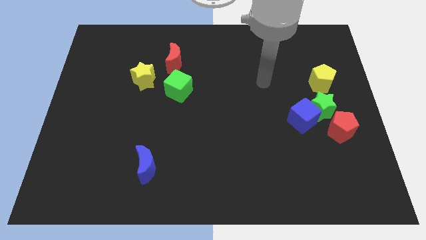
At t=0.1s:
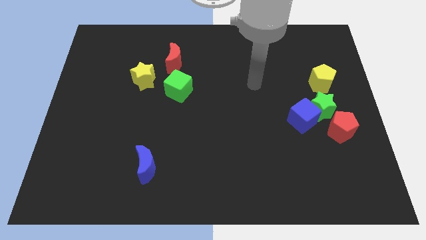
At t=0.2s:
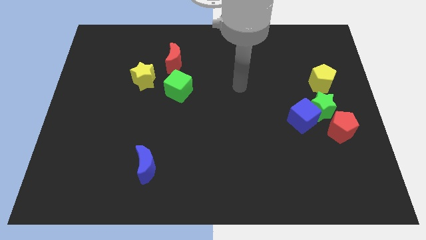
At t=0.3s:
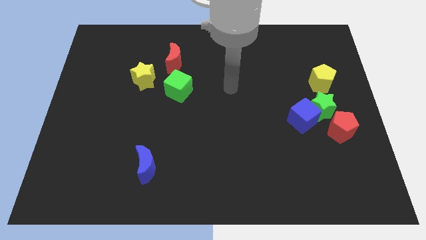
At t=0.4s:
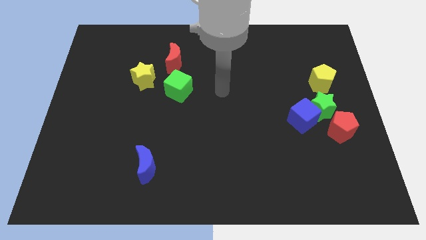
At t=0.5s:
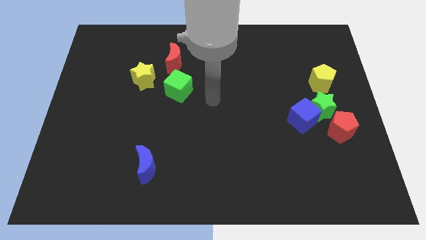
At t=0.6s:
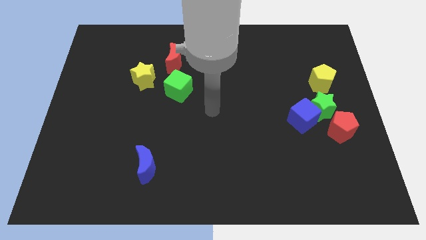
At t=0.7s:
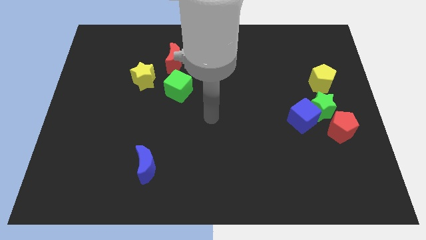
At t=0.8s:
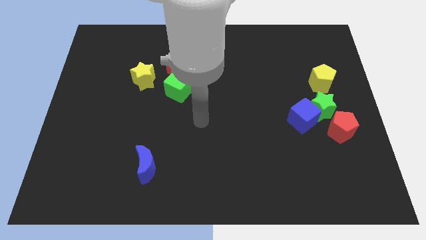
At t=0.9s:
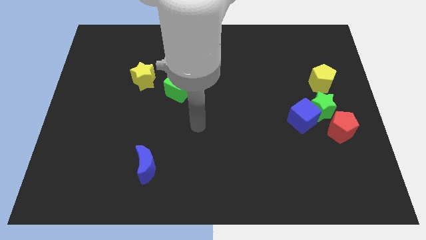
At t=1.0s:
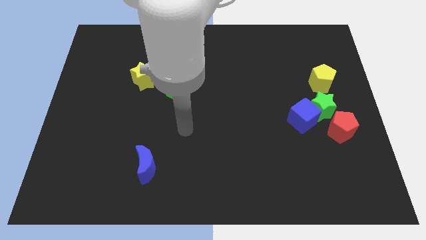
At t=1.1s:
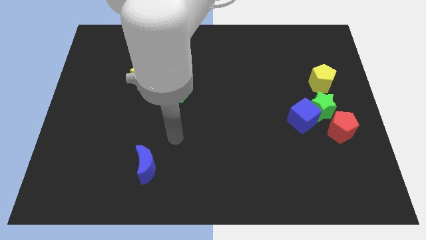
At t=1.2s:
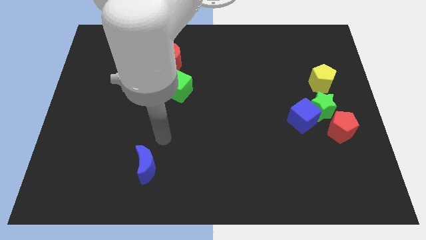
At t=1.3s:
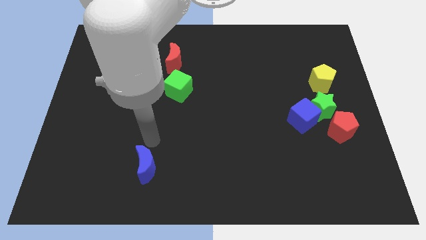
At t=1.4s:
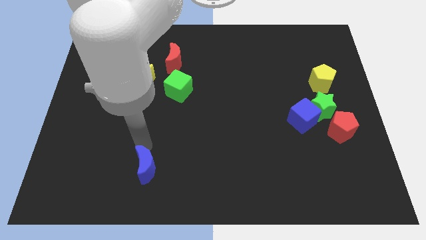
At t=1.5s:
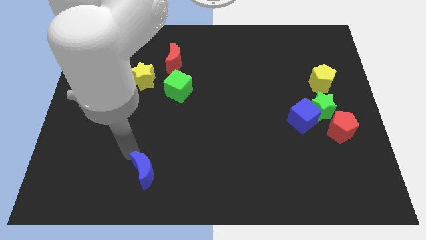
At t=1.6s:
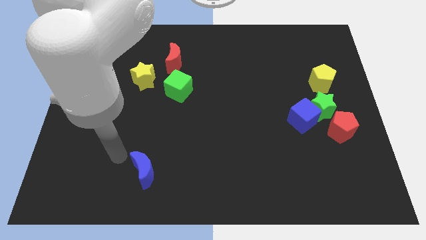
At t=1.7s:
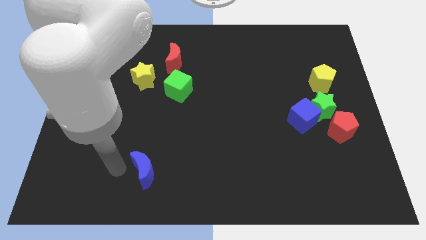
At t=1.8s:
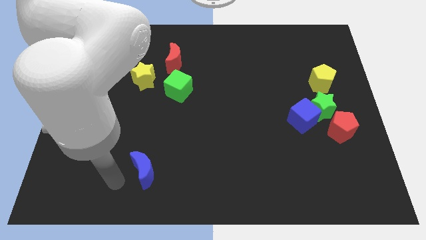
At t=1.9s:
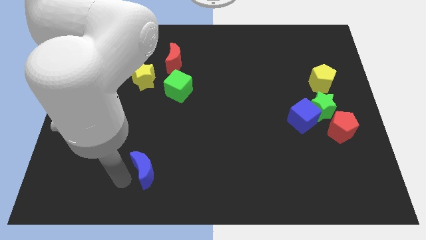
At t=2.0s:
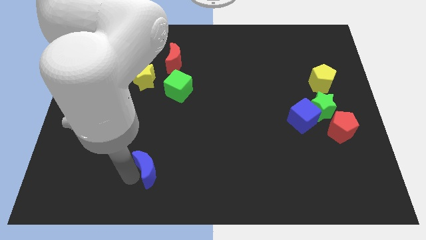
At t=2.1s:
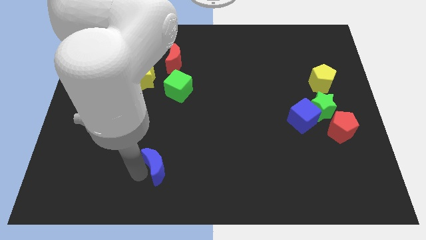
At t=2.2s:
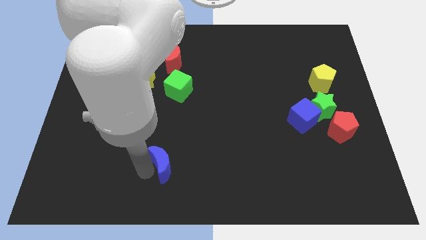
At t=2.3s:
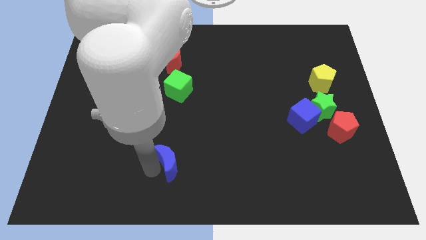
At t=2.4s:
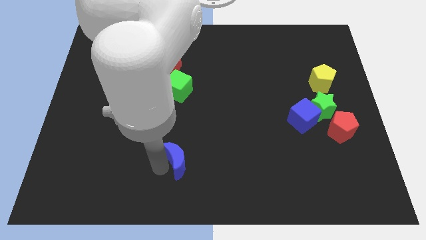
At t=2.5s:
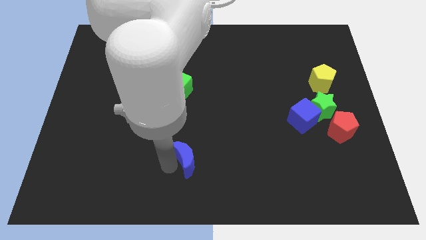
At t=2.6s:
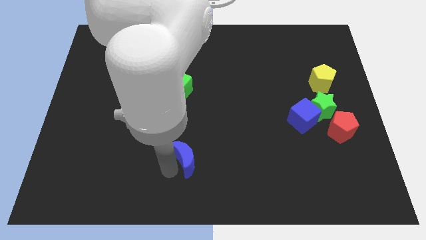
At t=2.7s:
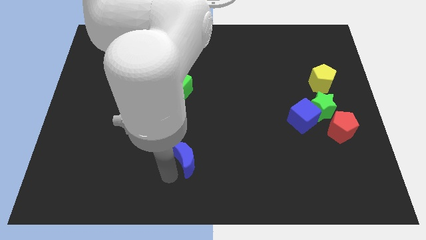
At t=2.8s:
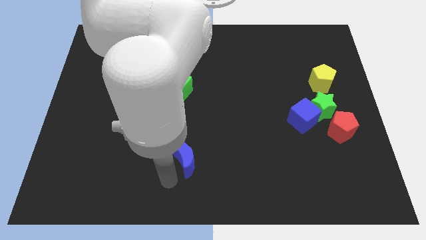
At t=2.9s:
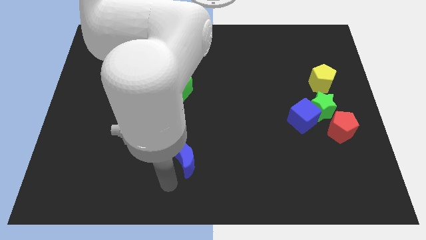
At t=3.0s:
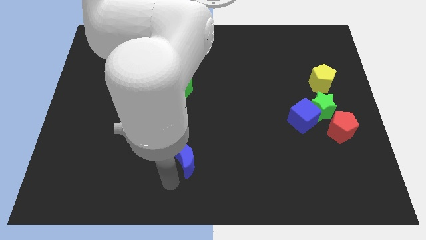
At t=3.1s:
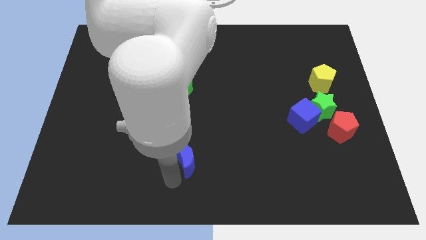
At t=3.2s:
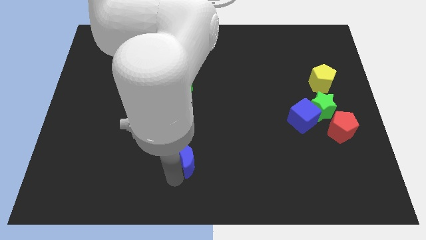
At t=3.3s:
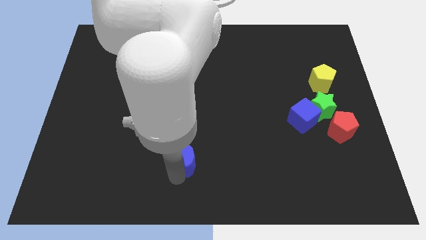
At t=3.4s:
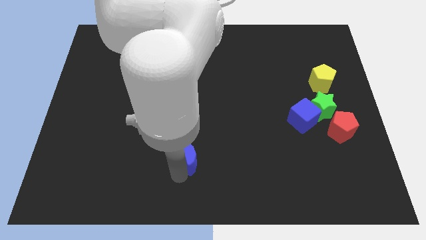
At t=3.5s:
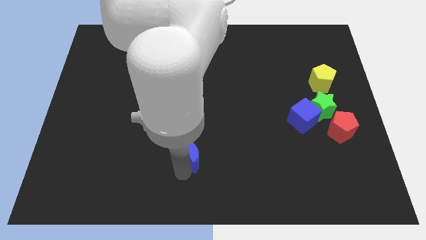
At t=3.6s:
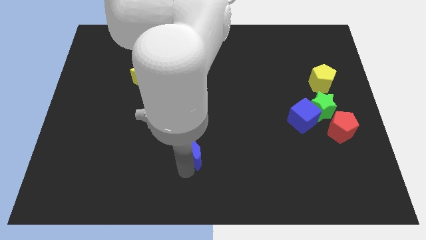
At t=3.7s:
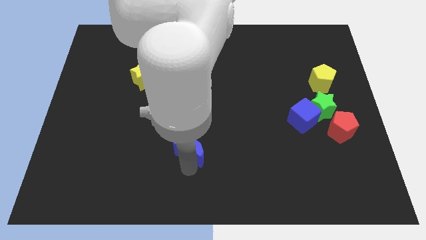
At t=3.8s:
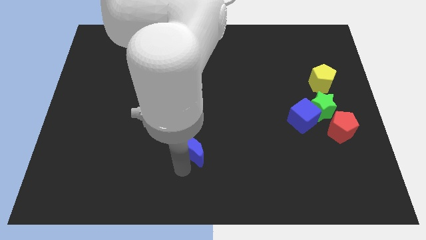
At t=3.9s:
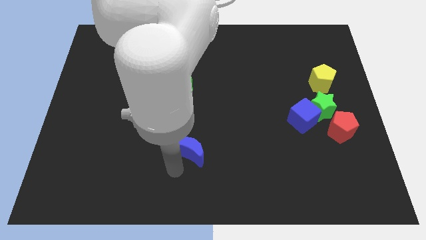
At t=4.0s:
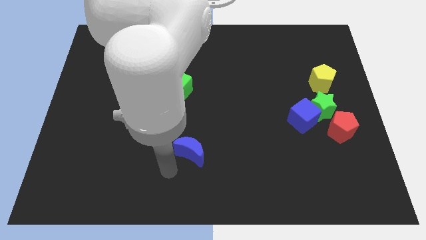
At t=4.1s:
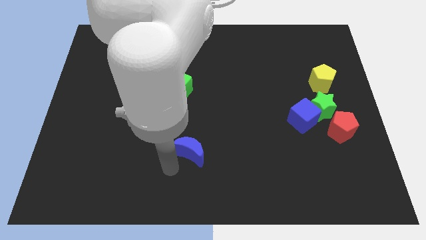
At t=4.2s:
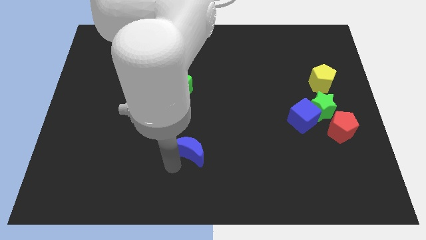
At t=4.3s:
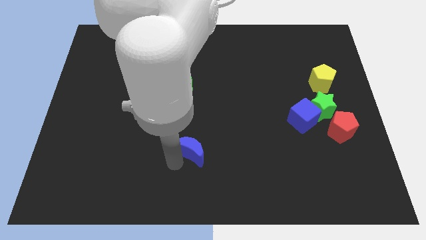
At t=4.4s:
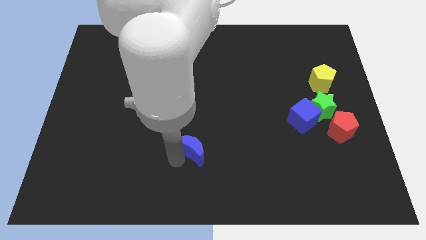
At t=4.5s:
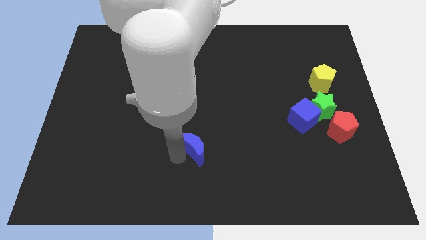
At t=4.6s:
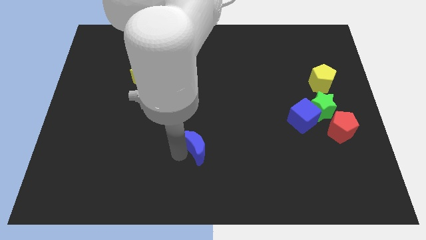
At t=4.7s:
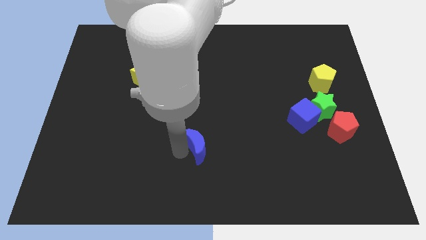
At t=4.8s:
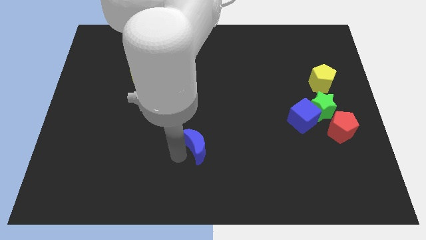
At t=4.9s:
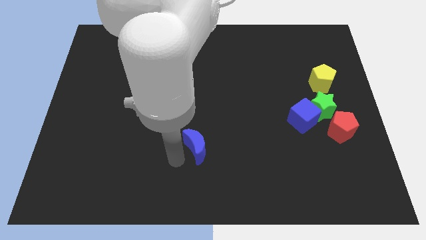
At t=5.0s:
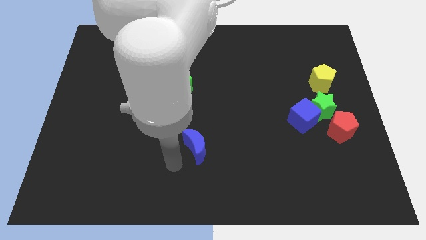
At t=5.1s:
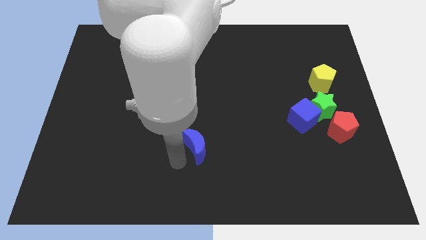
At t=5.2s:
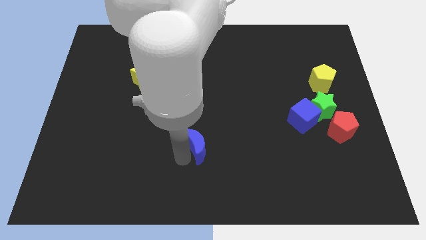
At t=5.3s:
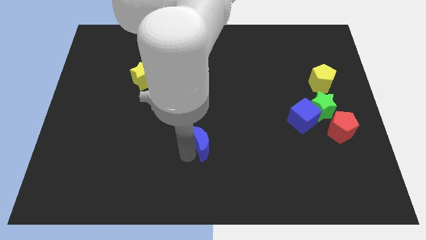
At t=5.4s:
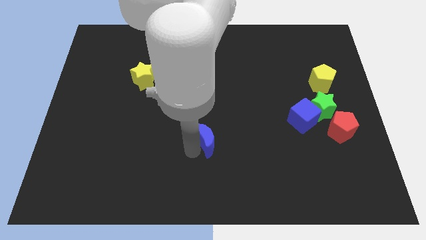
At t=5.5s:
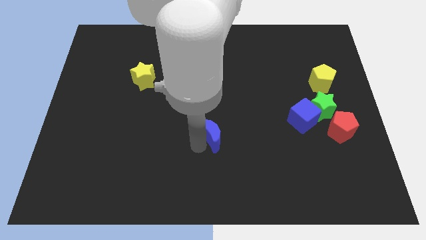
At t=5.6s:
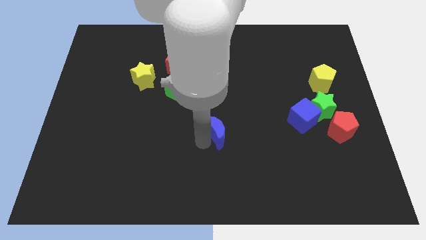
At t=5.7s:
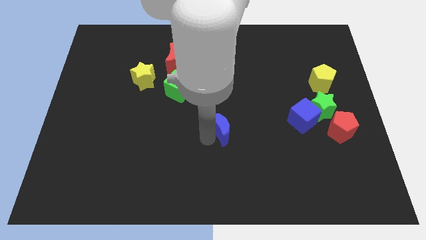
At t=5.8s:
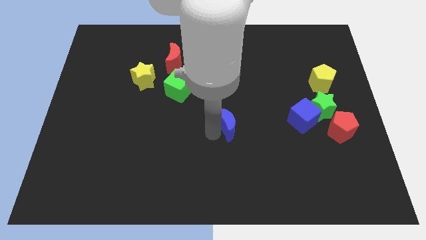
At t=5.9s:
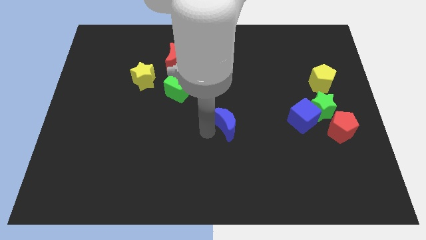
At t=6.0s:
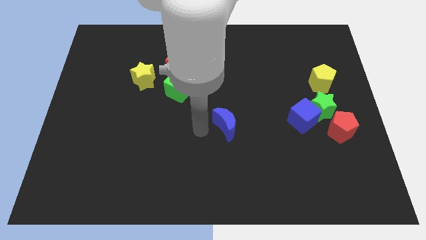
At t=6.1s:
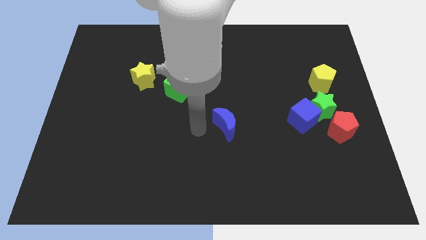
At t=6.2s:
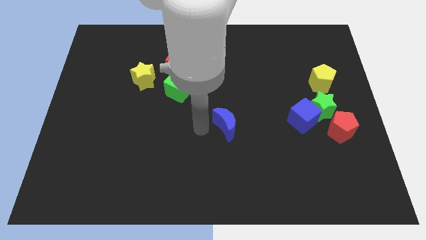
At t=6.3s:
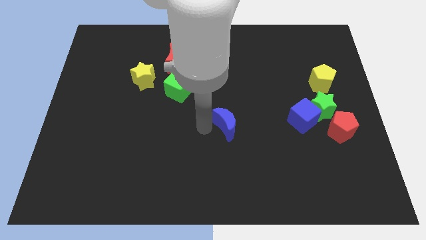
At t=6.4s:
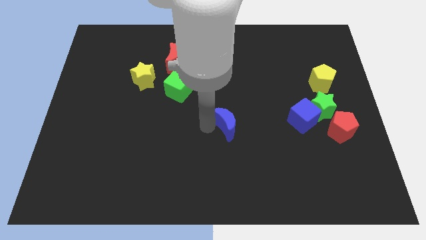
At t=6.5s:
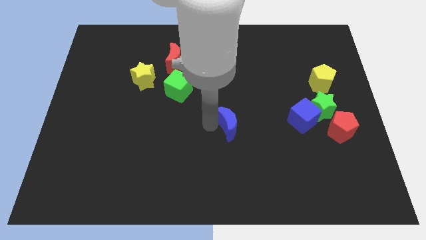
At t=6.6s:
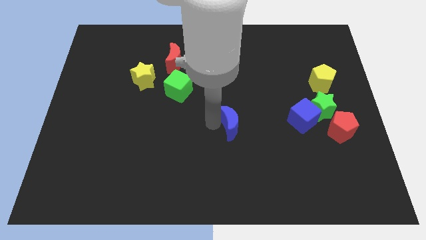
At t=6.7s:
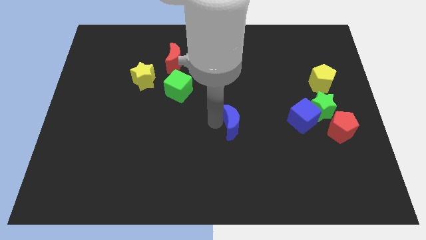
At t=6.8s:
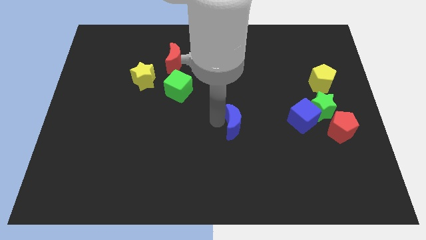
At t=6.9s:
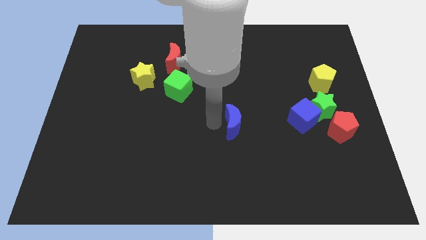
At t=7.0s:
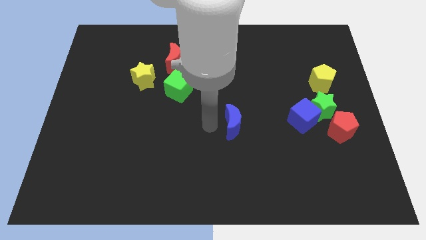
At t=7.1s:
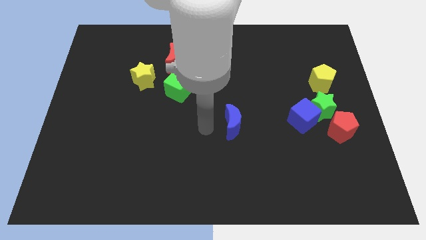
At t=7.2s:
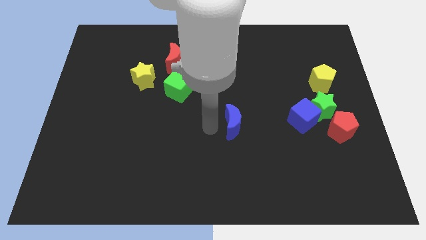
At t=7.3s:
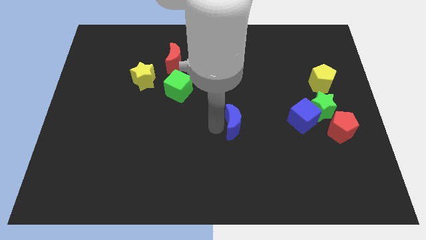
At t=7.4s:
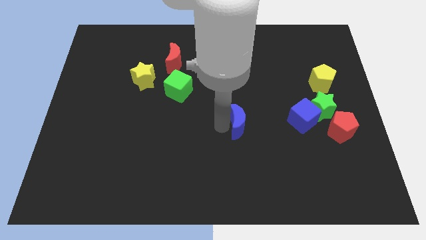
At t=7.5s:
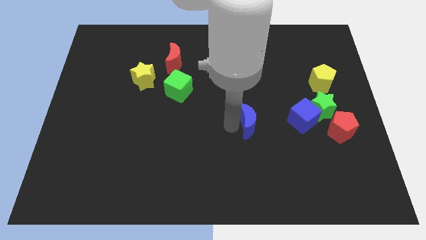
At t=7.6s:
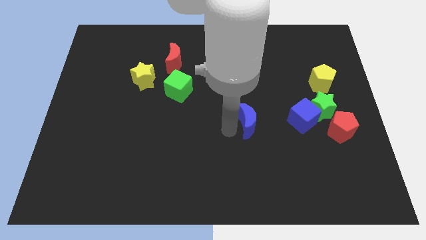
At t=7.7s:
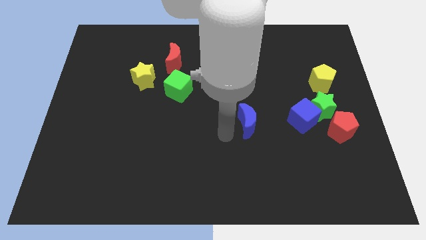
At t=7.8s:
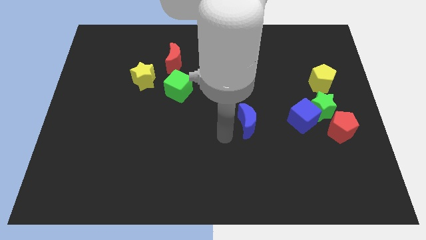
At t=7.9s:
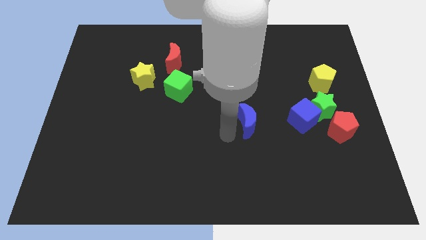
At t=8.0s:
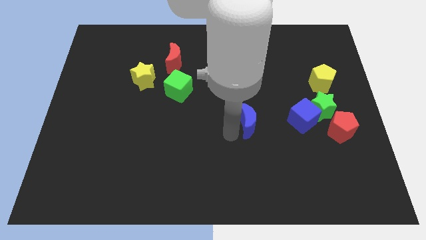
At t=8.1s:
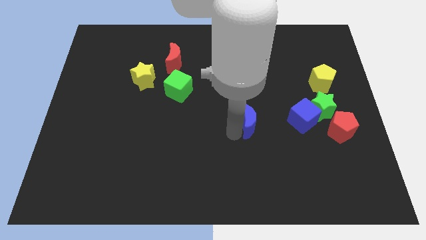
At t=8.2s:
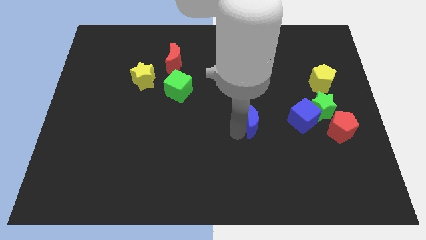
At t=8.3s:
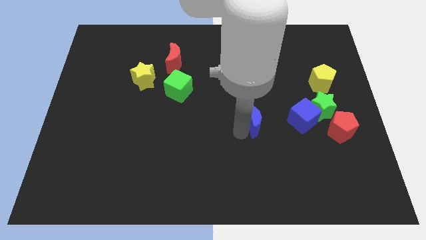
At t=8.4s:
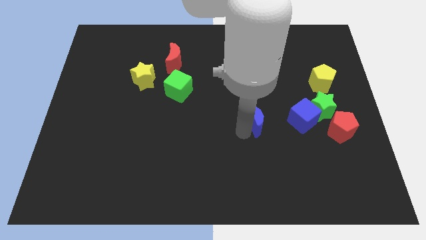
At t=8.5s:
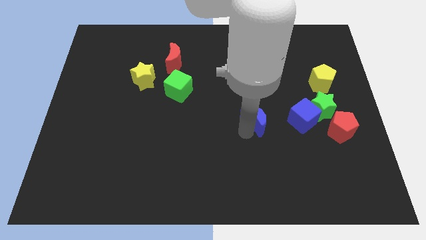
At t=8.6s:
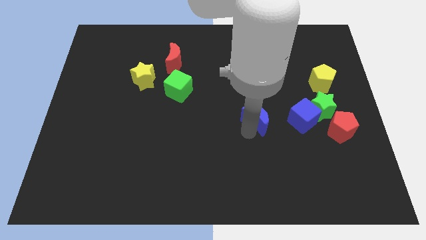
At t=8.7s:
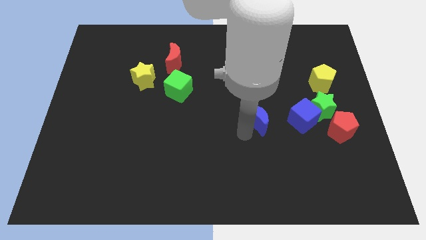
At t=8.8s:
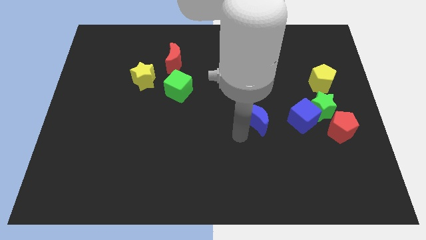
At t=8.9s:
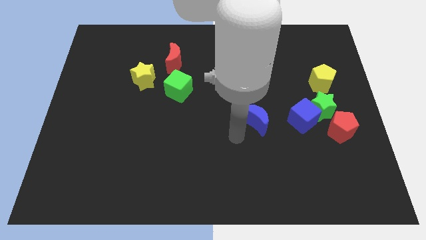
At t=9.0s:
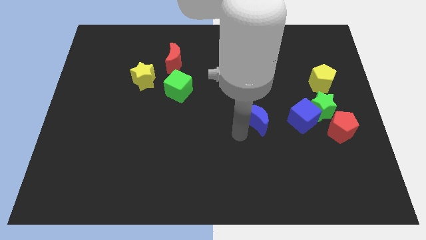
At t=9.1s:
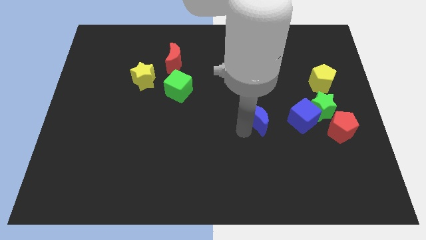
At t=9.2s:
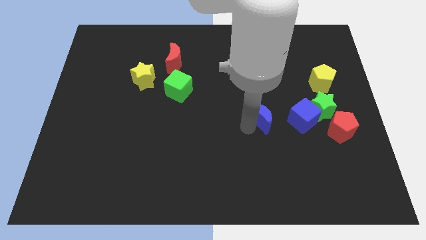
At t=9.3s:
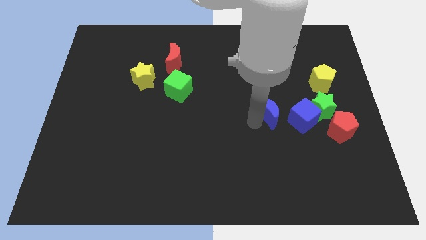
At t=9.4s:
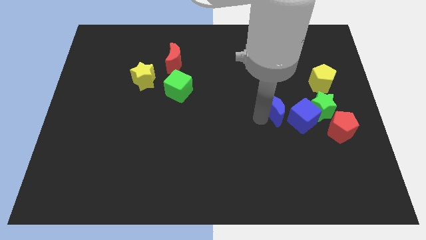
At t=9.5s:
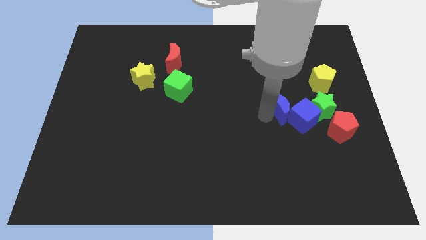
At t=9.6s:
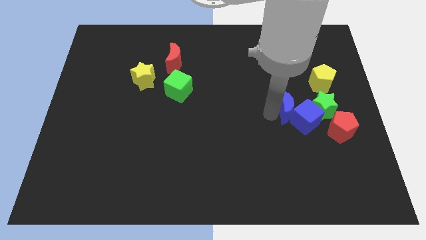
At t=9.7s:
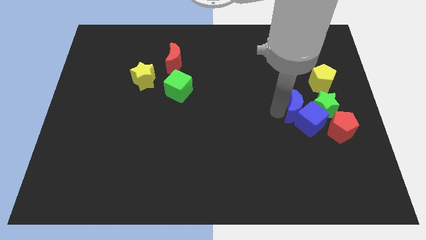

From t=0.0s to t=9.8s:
move the blue moon to the bottom left of the yellow pentagon
